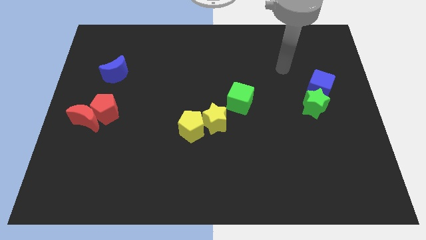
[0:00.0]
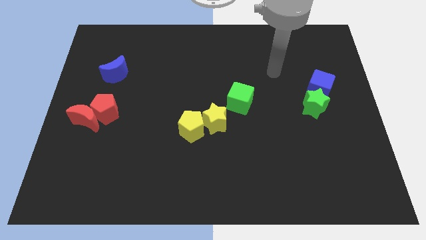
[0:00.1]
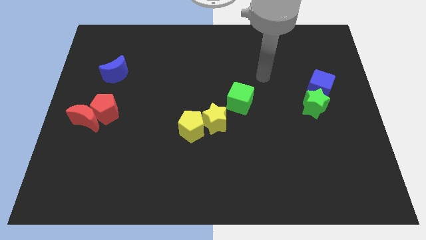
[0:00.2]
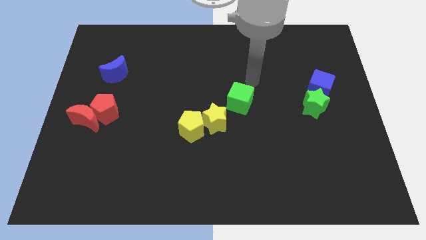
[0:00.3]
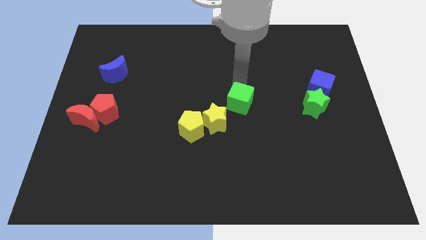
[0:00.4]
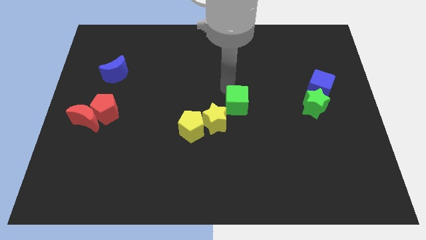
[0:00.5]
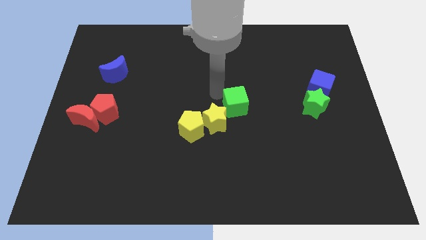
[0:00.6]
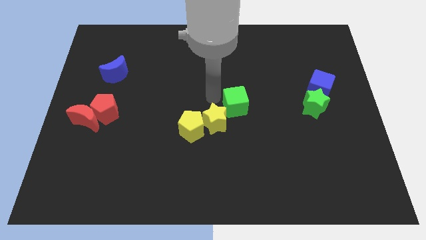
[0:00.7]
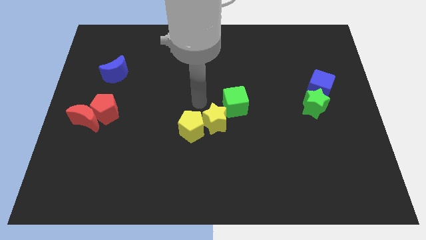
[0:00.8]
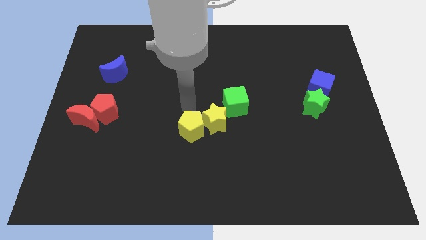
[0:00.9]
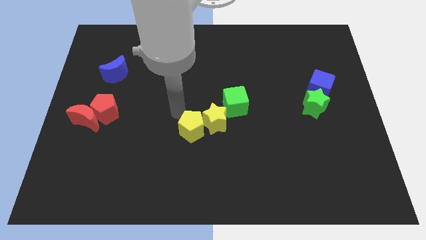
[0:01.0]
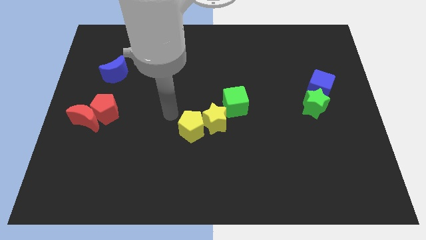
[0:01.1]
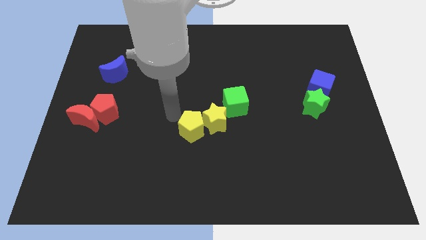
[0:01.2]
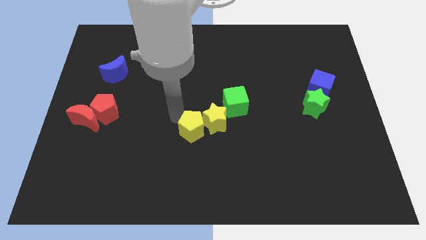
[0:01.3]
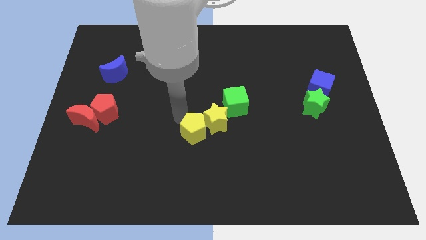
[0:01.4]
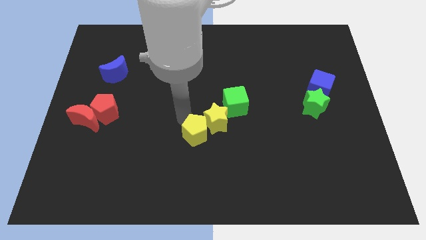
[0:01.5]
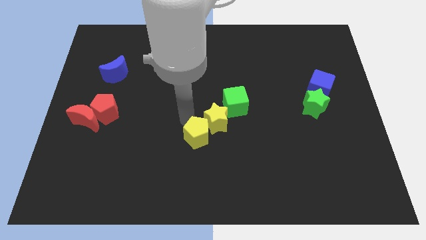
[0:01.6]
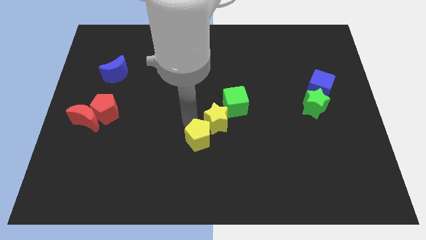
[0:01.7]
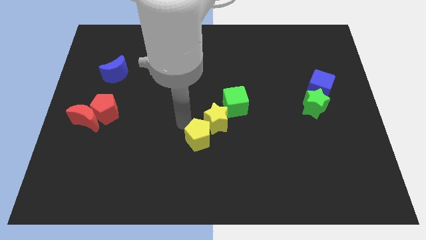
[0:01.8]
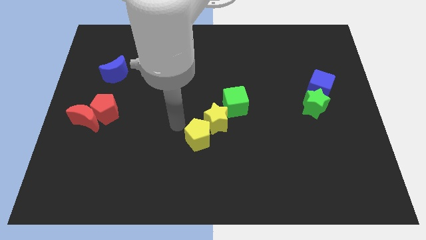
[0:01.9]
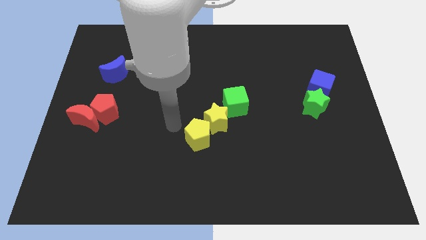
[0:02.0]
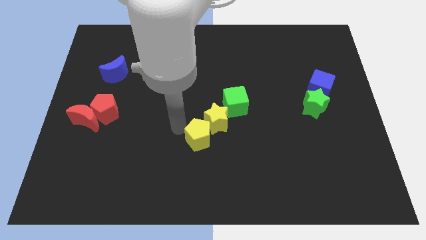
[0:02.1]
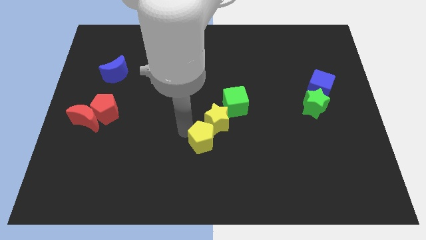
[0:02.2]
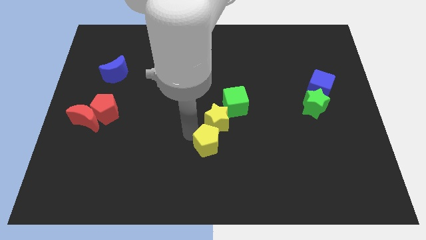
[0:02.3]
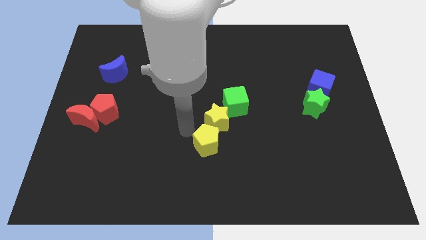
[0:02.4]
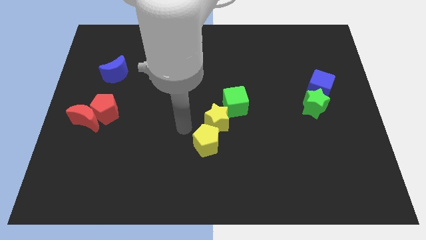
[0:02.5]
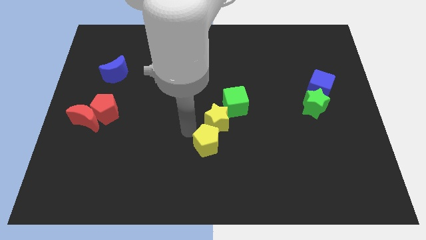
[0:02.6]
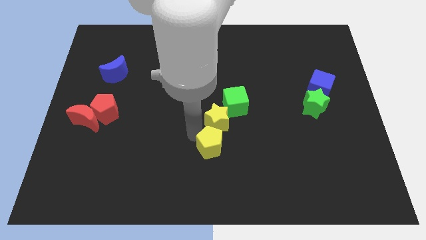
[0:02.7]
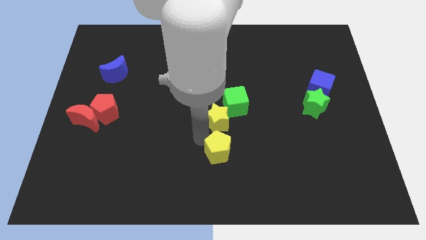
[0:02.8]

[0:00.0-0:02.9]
move the yellow pentagon downwards and right diagonally a little

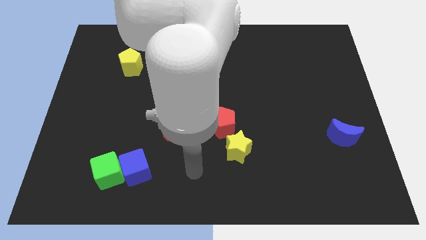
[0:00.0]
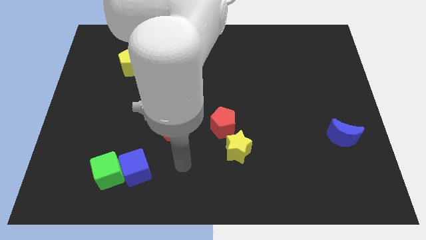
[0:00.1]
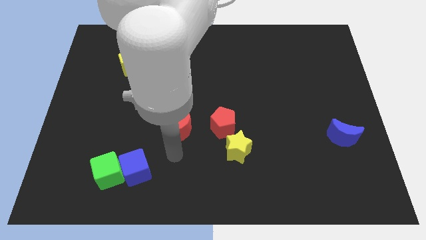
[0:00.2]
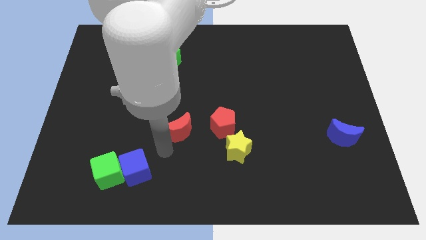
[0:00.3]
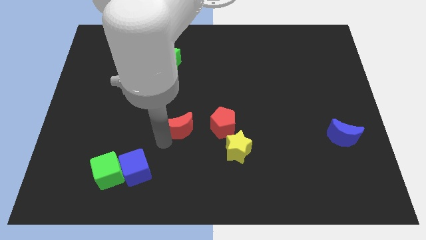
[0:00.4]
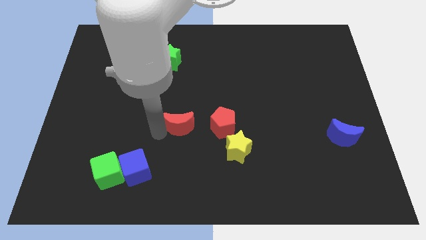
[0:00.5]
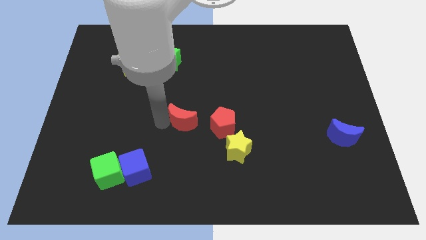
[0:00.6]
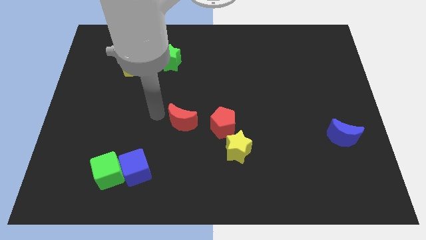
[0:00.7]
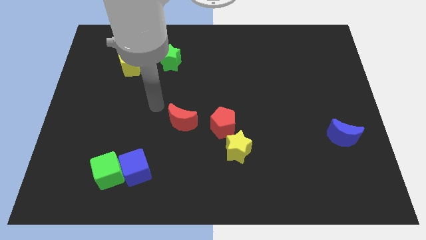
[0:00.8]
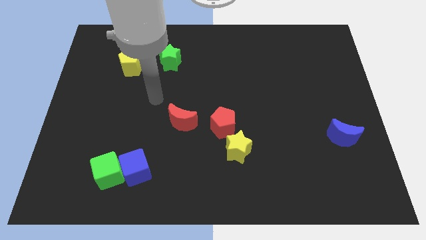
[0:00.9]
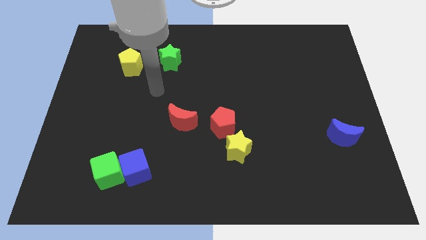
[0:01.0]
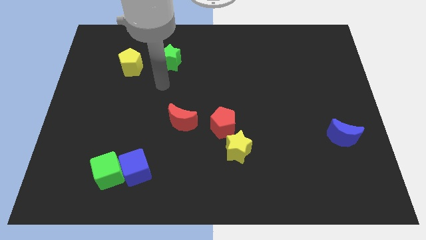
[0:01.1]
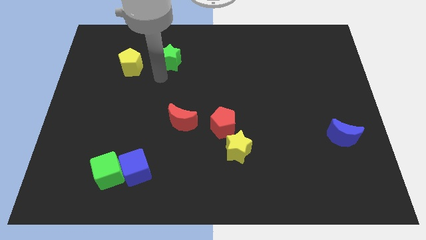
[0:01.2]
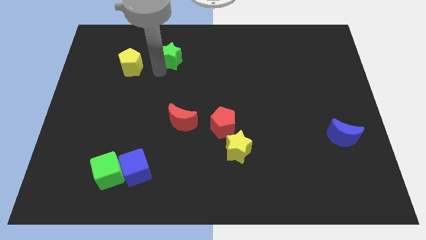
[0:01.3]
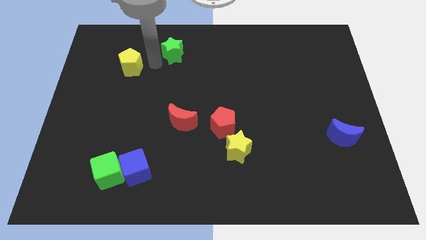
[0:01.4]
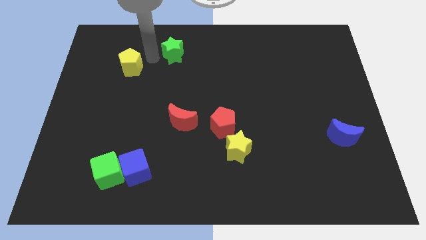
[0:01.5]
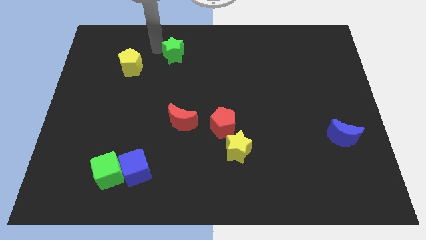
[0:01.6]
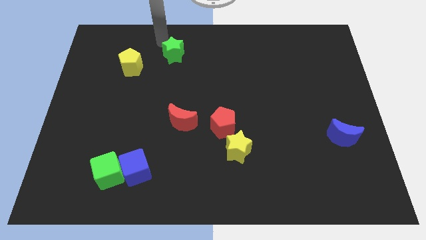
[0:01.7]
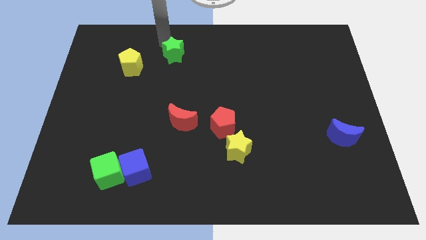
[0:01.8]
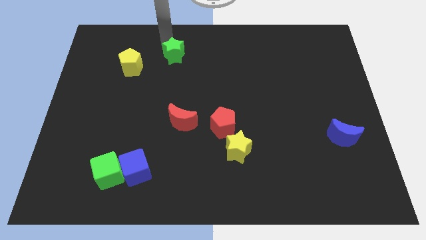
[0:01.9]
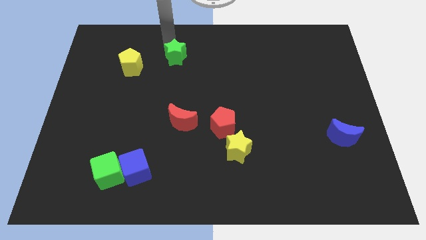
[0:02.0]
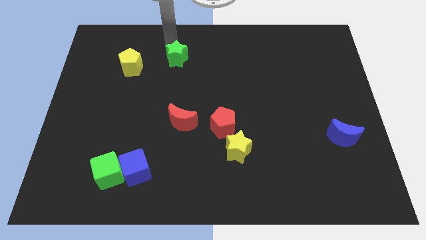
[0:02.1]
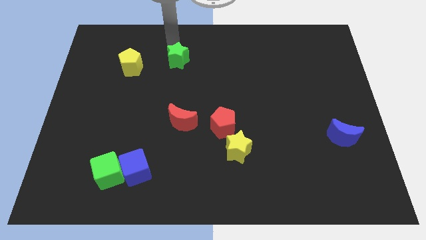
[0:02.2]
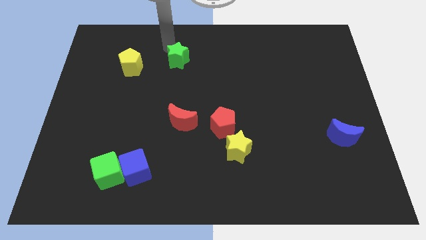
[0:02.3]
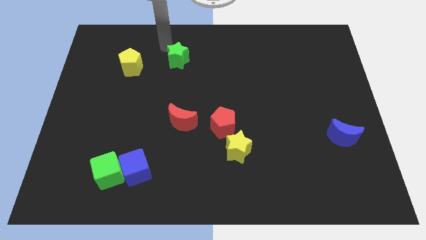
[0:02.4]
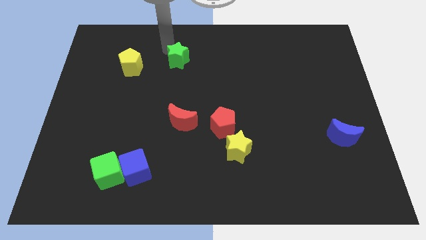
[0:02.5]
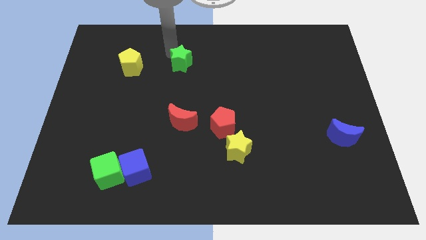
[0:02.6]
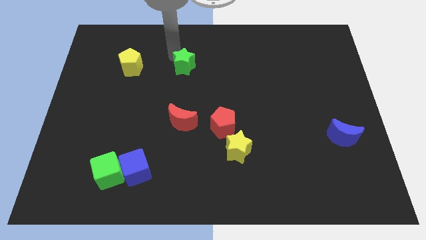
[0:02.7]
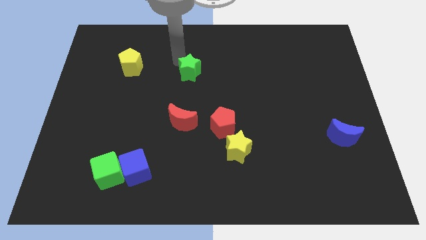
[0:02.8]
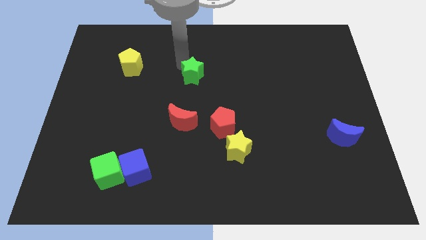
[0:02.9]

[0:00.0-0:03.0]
push the green star slightly diagonally downwards and to the right

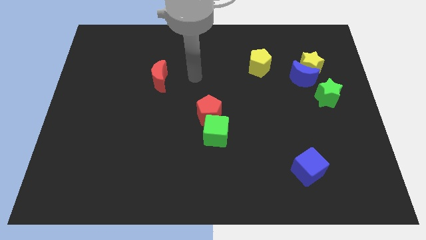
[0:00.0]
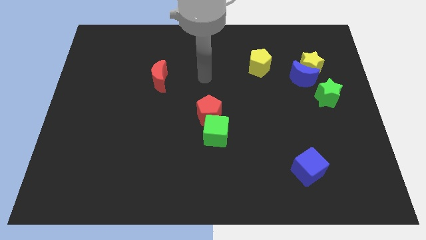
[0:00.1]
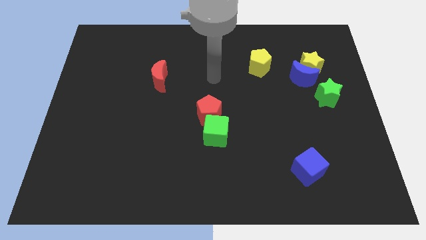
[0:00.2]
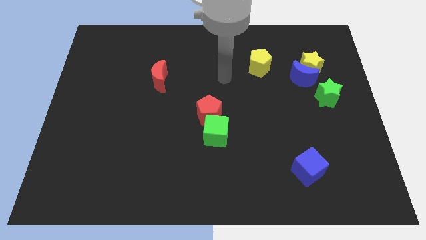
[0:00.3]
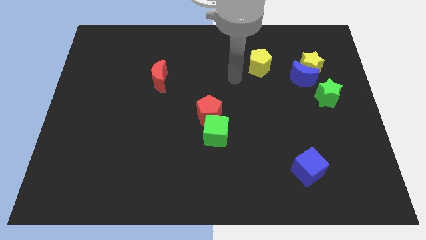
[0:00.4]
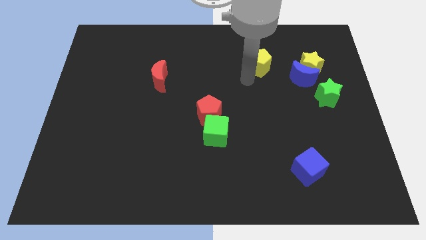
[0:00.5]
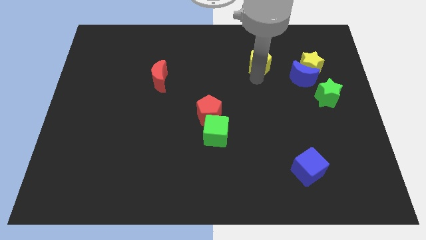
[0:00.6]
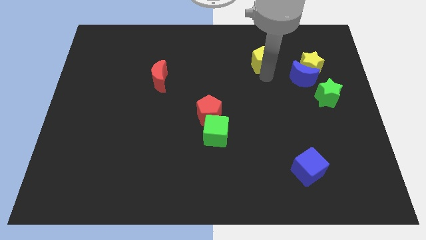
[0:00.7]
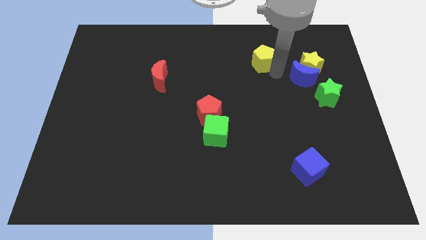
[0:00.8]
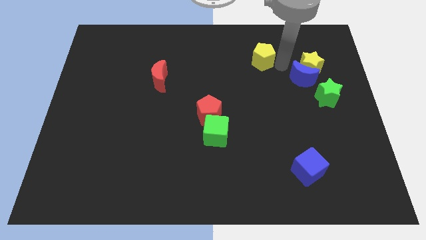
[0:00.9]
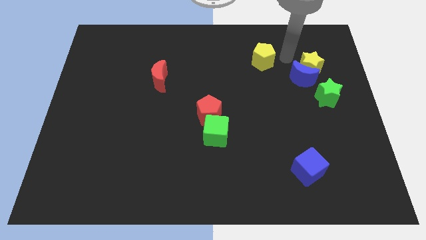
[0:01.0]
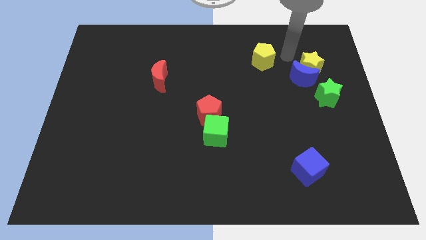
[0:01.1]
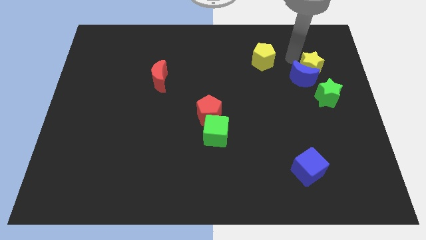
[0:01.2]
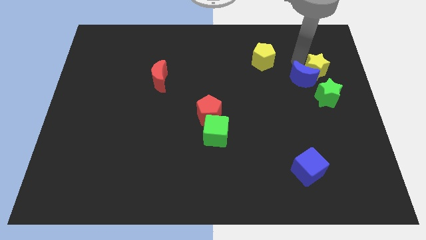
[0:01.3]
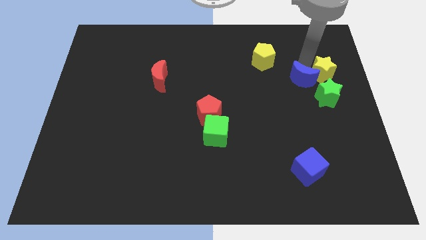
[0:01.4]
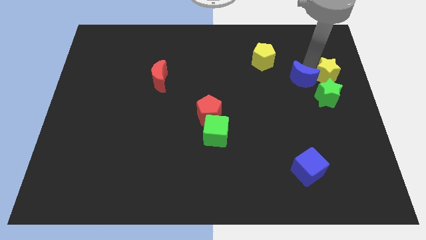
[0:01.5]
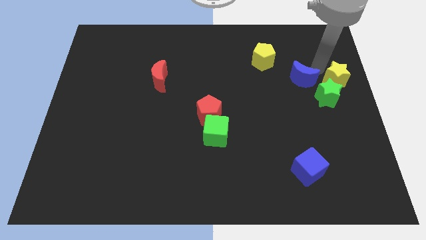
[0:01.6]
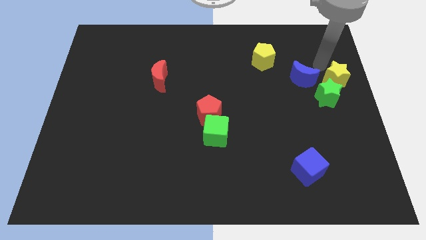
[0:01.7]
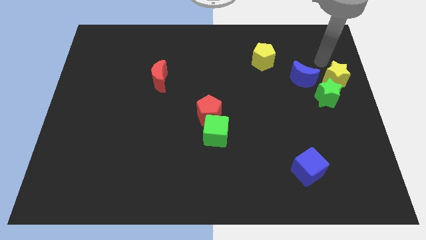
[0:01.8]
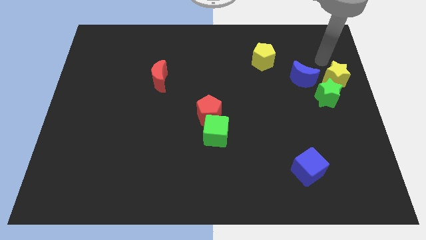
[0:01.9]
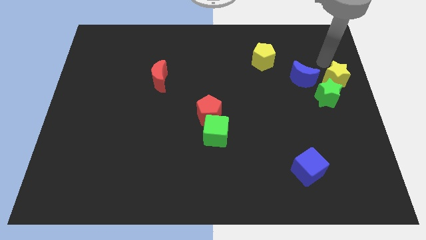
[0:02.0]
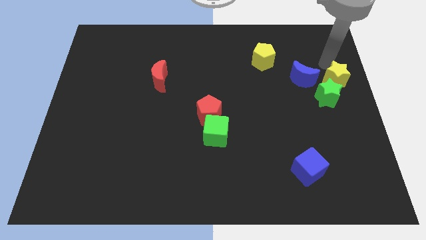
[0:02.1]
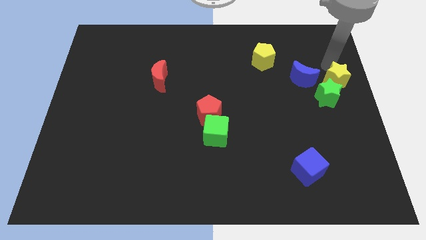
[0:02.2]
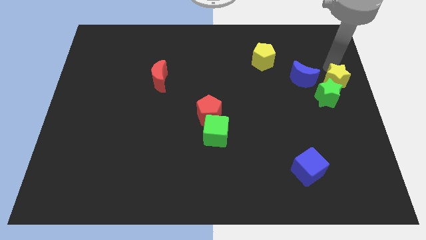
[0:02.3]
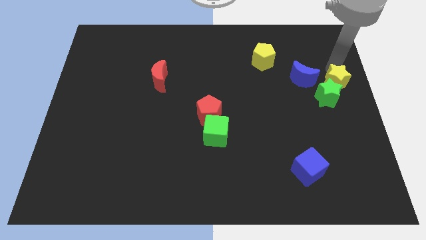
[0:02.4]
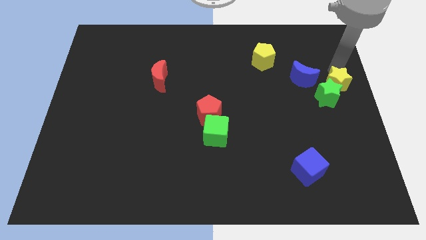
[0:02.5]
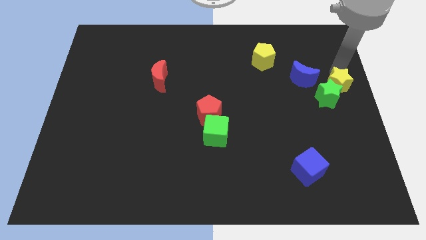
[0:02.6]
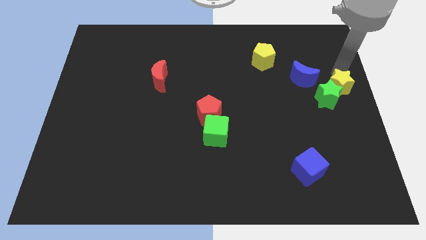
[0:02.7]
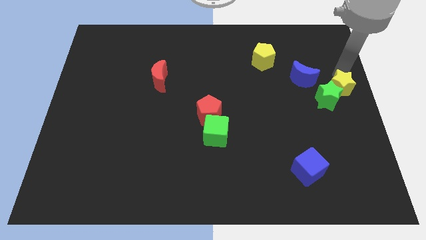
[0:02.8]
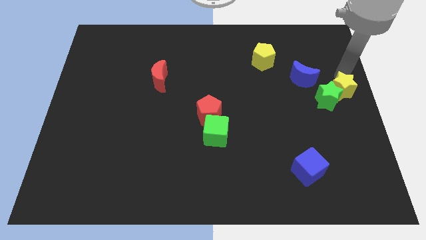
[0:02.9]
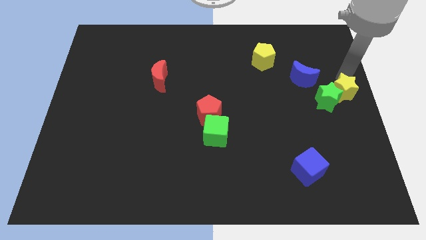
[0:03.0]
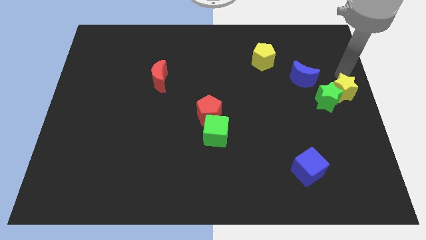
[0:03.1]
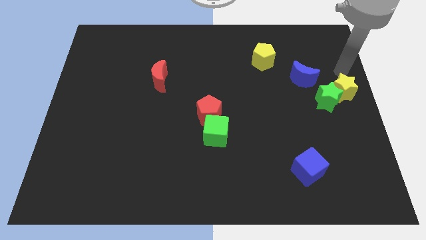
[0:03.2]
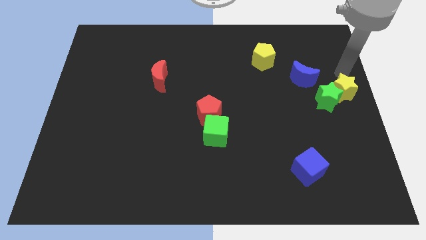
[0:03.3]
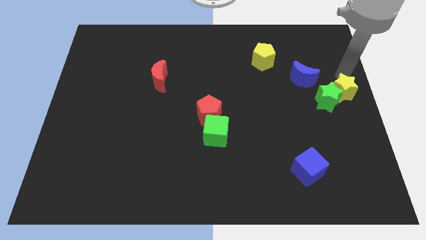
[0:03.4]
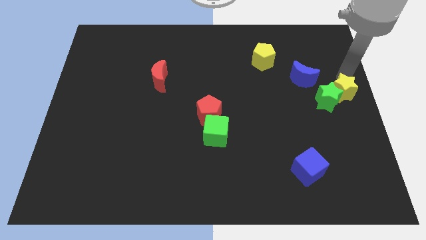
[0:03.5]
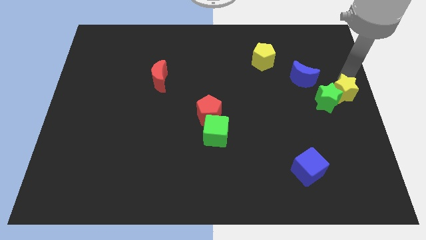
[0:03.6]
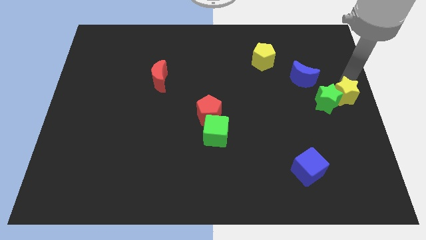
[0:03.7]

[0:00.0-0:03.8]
move the yellow star a bit down
